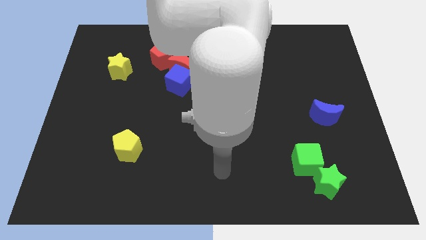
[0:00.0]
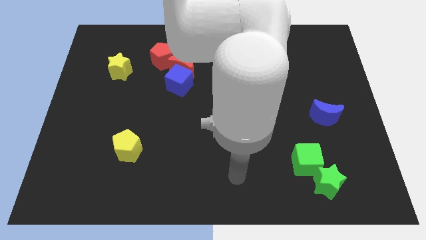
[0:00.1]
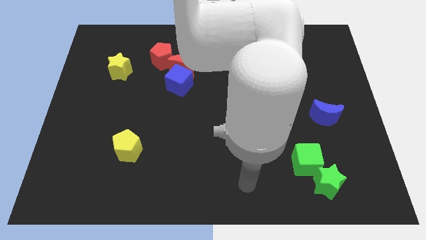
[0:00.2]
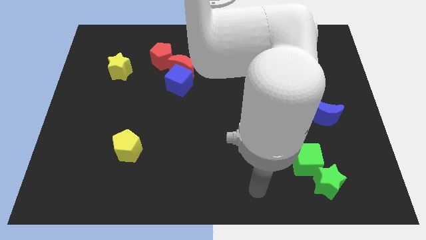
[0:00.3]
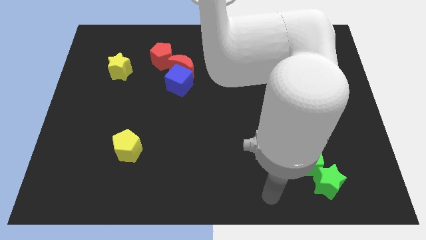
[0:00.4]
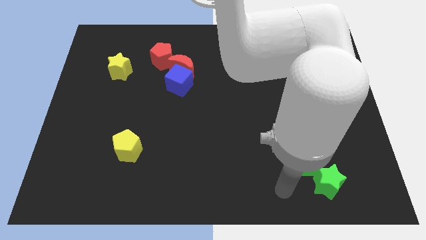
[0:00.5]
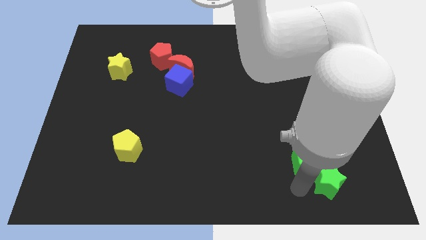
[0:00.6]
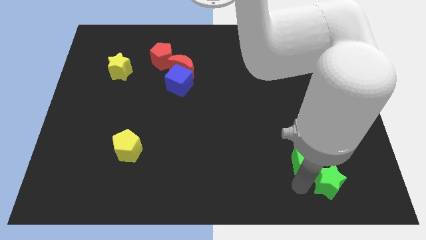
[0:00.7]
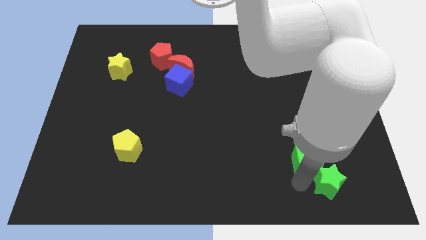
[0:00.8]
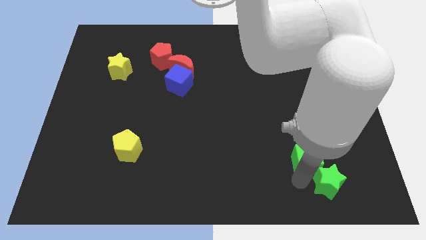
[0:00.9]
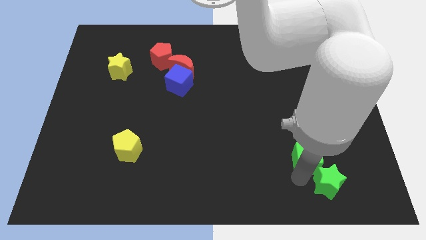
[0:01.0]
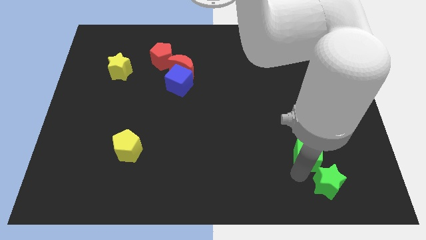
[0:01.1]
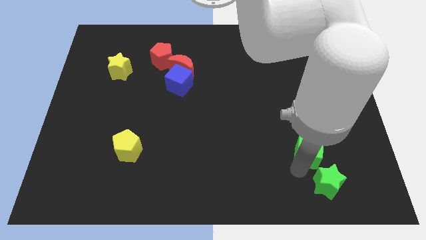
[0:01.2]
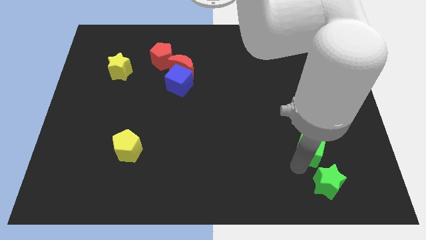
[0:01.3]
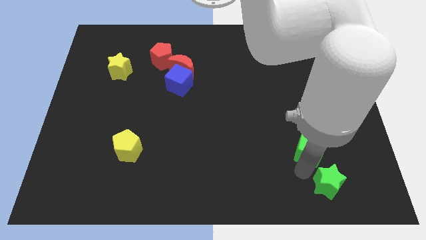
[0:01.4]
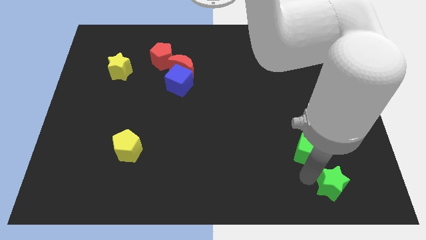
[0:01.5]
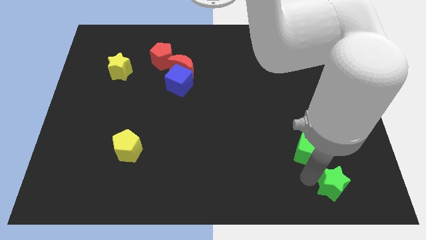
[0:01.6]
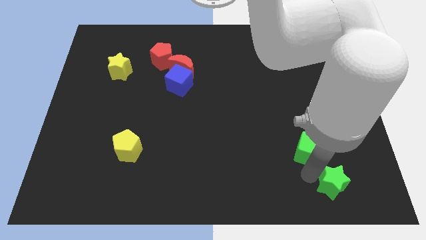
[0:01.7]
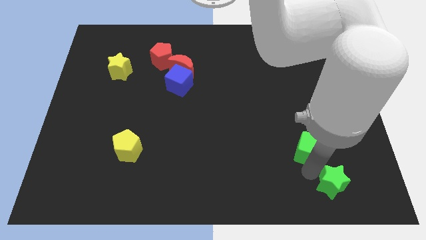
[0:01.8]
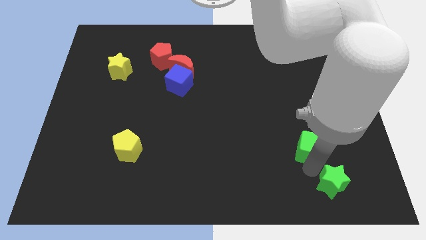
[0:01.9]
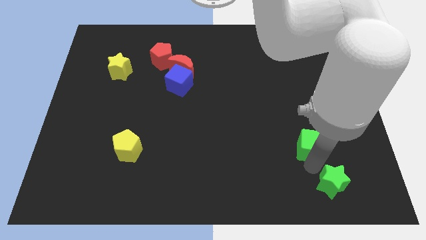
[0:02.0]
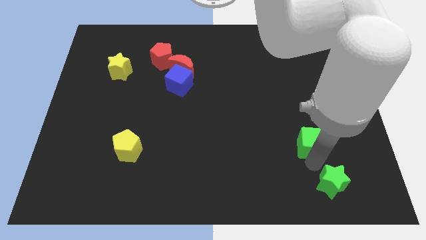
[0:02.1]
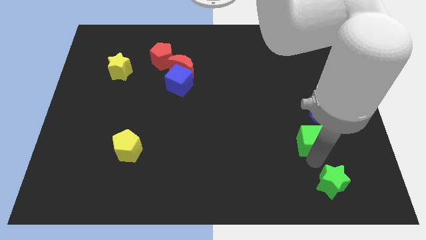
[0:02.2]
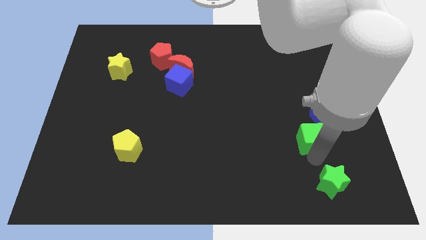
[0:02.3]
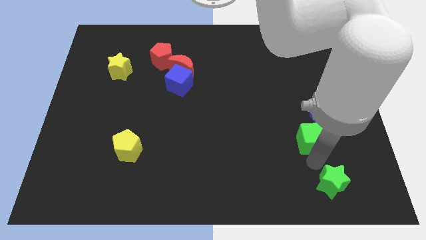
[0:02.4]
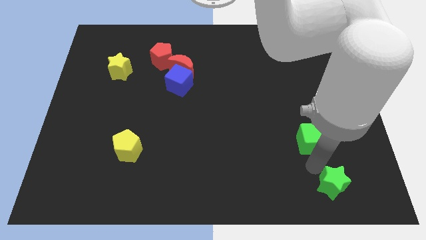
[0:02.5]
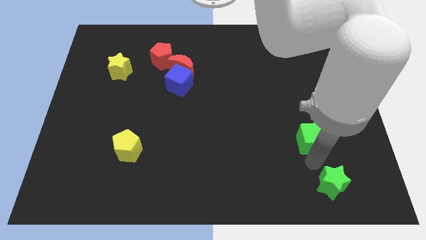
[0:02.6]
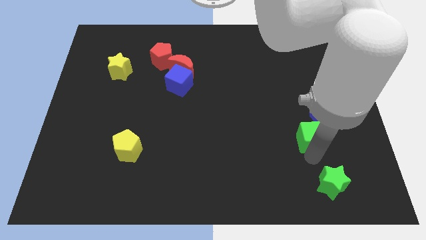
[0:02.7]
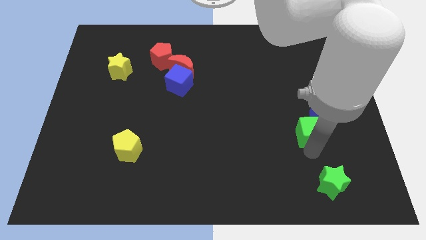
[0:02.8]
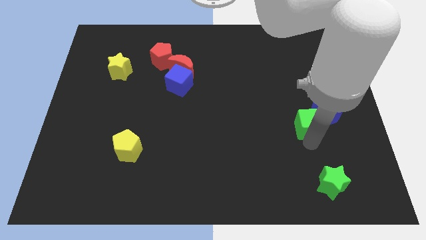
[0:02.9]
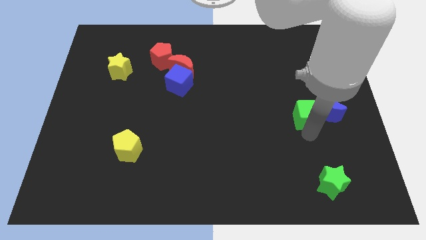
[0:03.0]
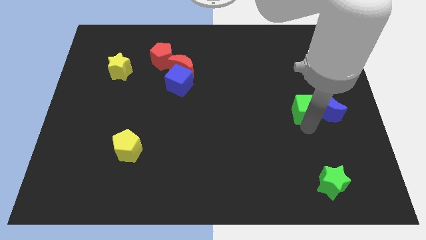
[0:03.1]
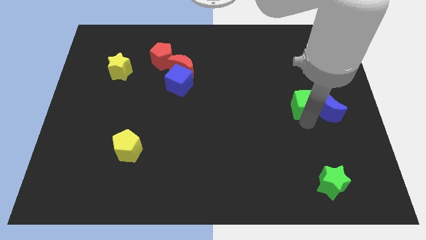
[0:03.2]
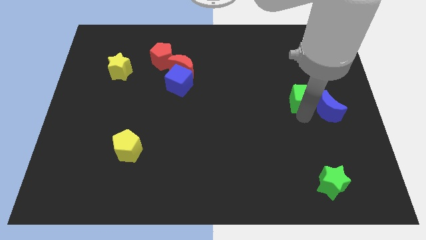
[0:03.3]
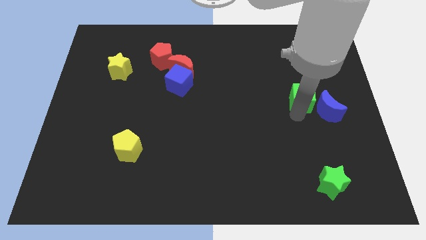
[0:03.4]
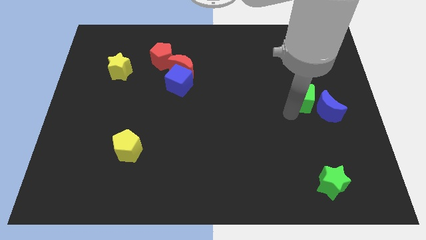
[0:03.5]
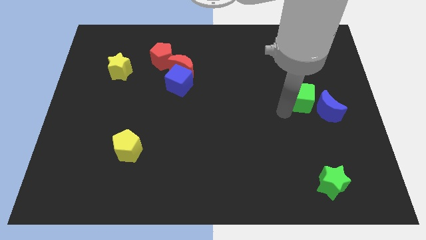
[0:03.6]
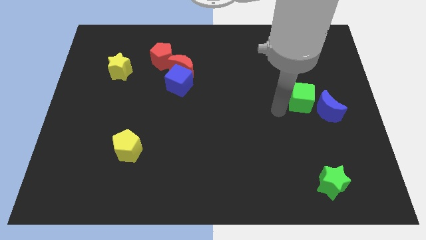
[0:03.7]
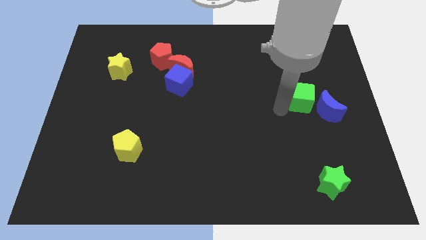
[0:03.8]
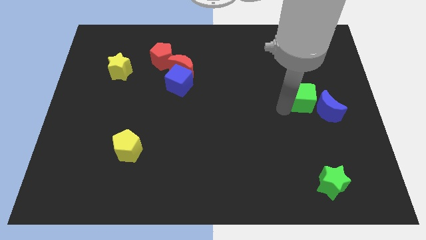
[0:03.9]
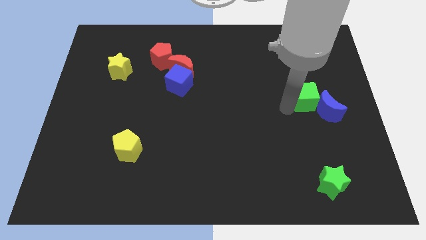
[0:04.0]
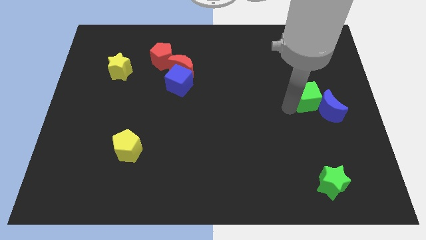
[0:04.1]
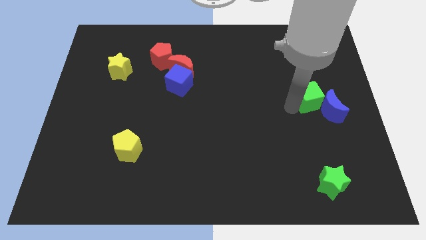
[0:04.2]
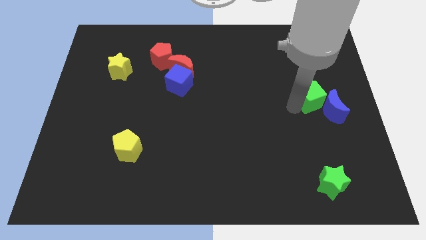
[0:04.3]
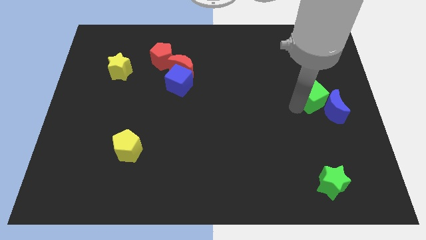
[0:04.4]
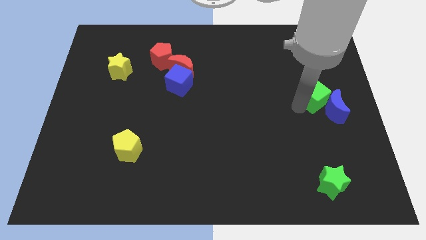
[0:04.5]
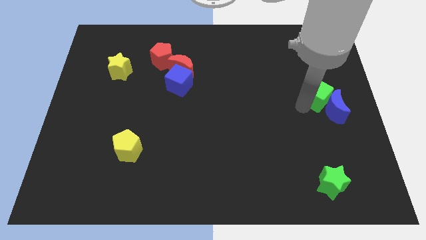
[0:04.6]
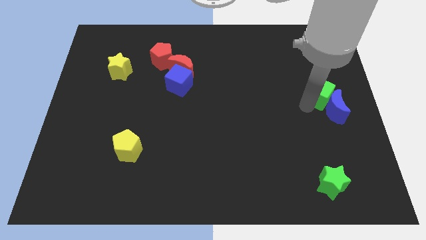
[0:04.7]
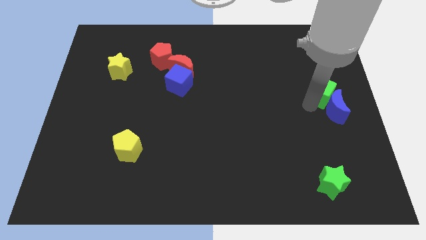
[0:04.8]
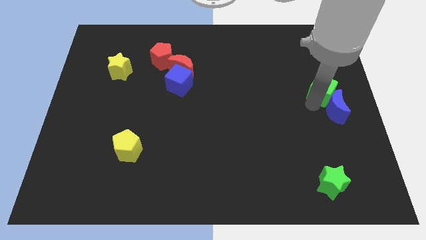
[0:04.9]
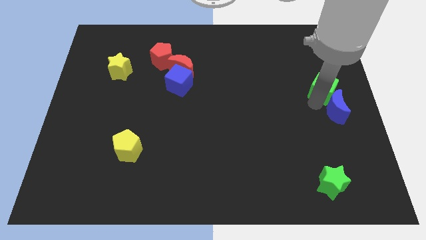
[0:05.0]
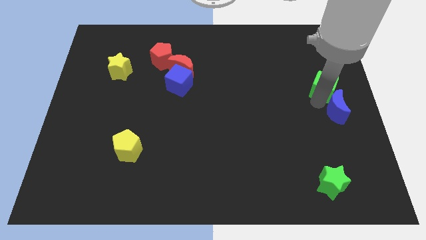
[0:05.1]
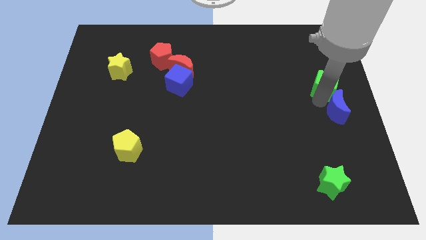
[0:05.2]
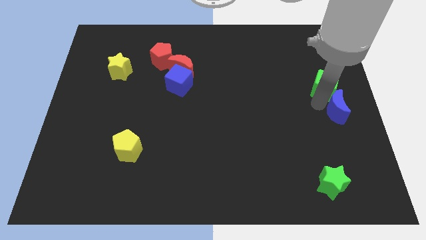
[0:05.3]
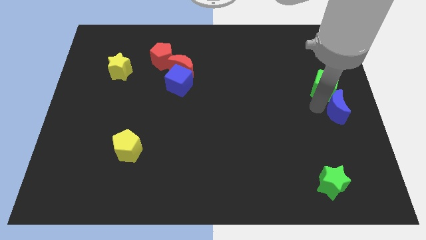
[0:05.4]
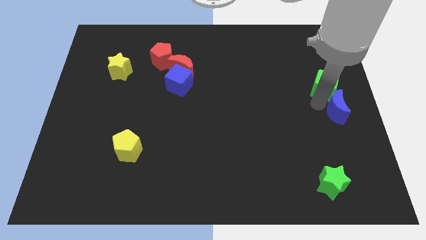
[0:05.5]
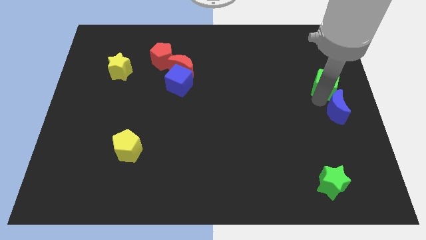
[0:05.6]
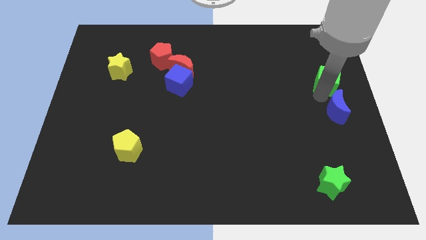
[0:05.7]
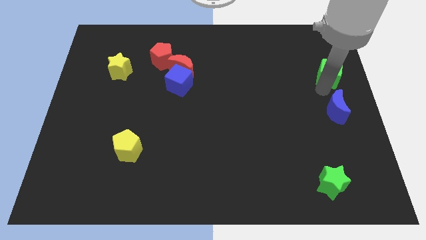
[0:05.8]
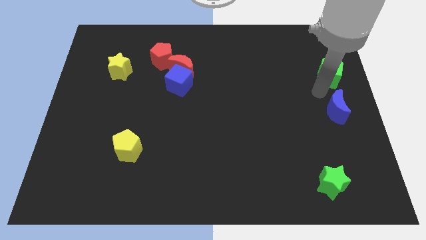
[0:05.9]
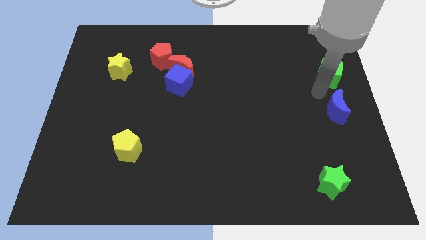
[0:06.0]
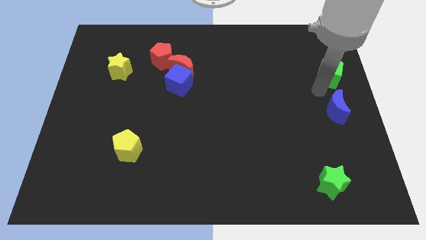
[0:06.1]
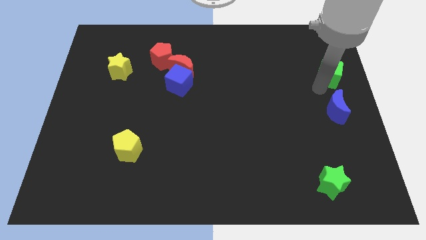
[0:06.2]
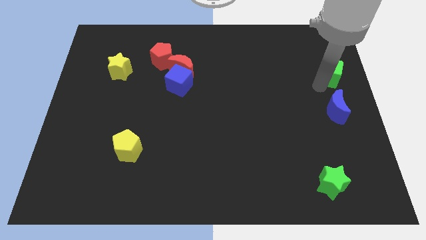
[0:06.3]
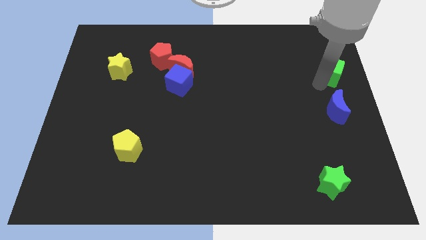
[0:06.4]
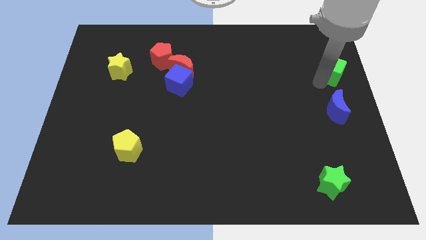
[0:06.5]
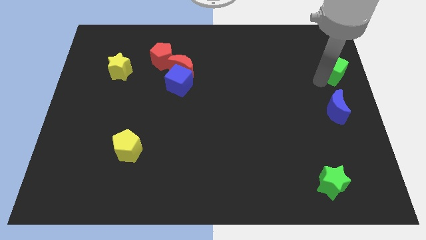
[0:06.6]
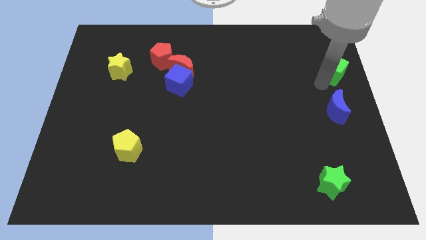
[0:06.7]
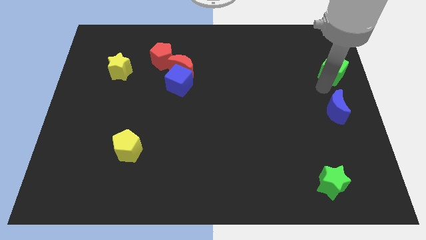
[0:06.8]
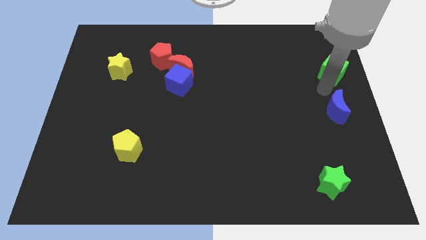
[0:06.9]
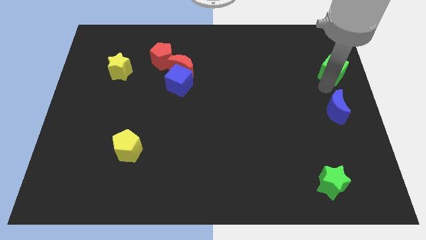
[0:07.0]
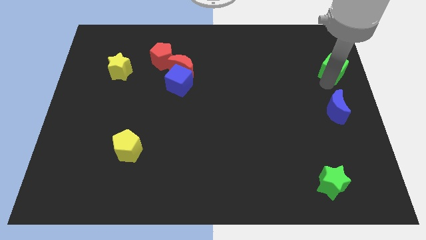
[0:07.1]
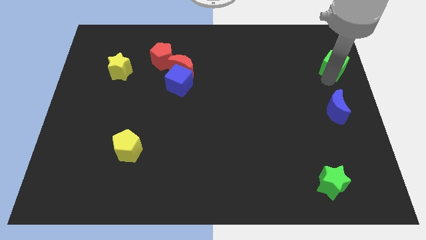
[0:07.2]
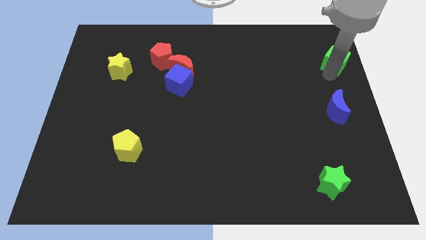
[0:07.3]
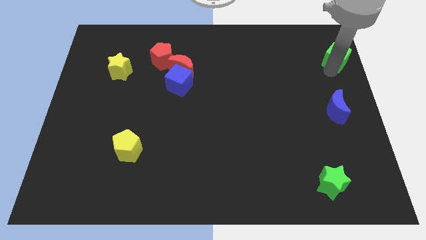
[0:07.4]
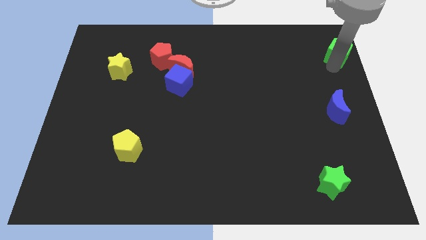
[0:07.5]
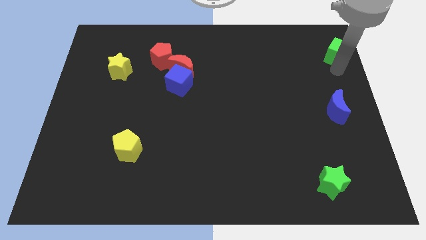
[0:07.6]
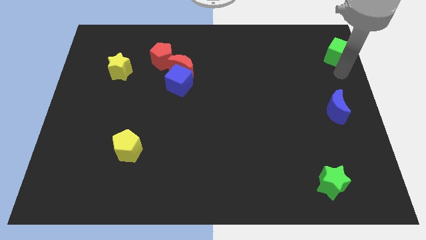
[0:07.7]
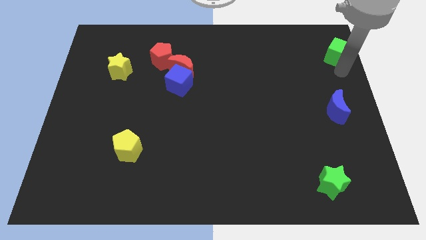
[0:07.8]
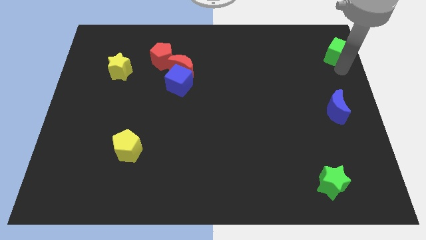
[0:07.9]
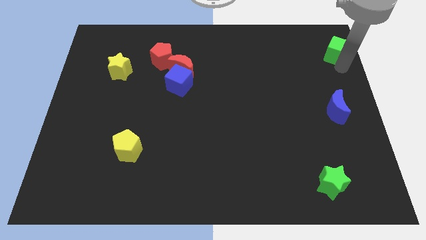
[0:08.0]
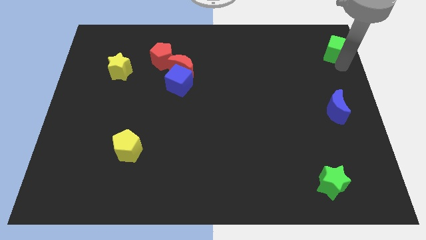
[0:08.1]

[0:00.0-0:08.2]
push the green cube to the upper right corner

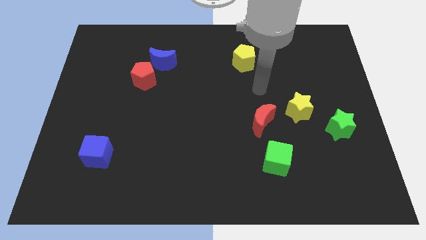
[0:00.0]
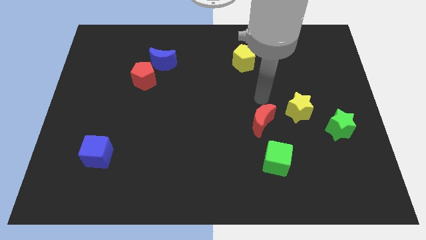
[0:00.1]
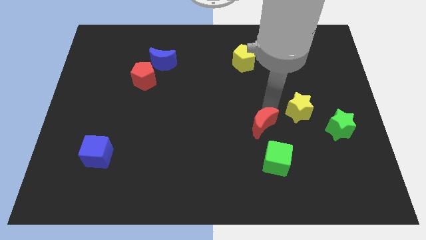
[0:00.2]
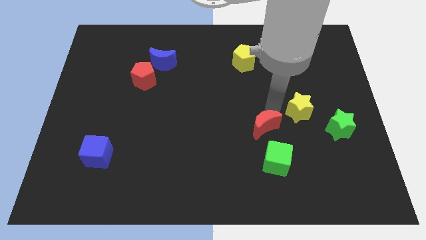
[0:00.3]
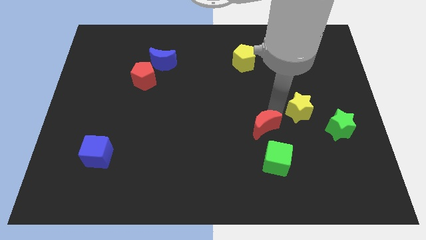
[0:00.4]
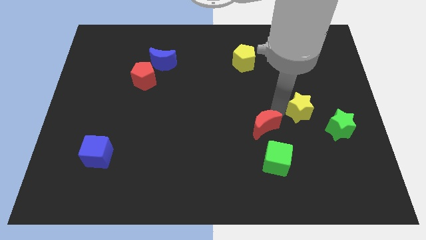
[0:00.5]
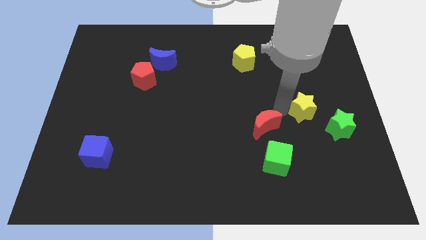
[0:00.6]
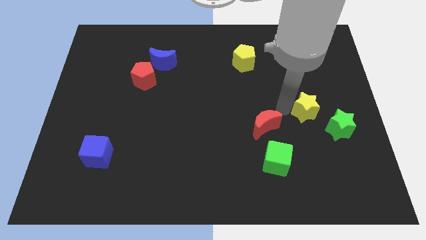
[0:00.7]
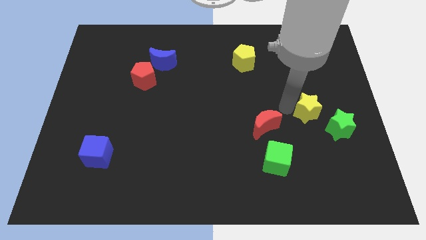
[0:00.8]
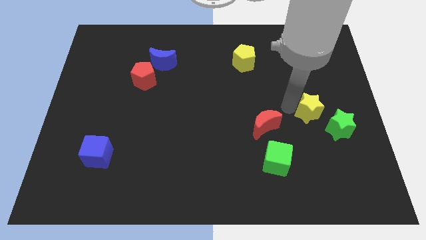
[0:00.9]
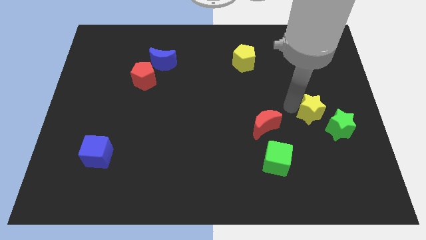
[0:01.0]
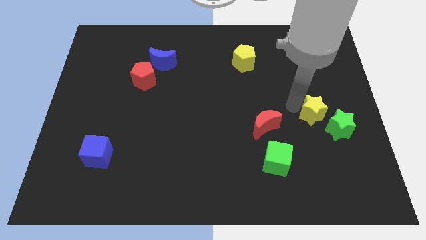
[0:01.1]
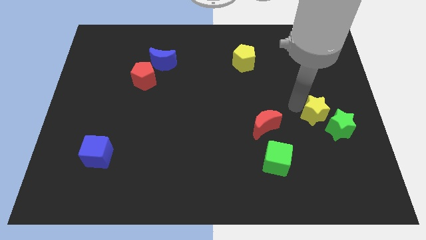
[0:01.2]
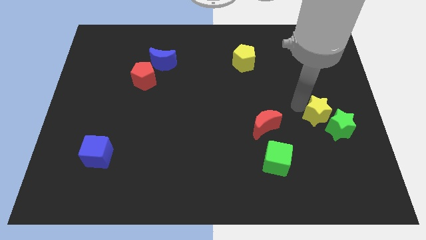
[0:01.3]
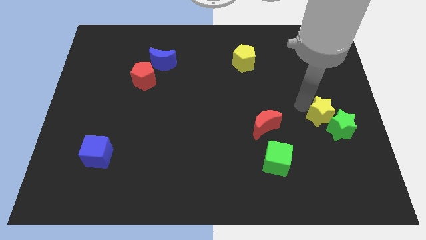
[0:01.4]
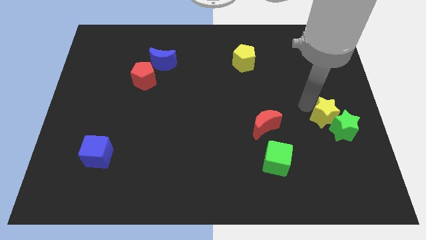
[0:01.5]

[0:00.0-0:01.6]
push the yellow star to the center right
